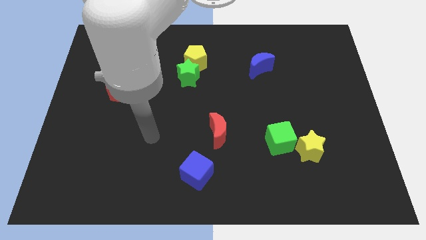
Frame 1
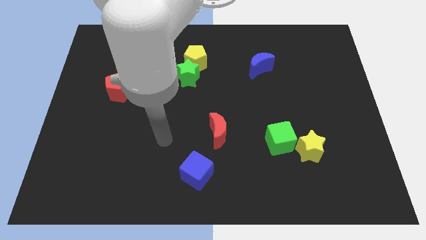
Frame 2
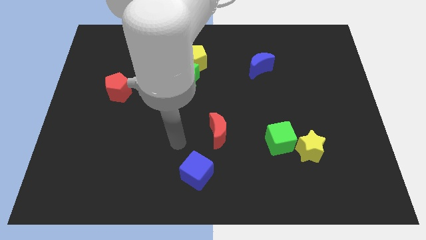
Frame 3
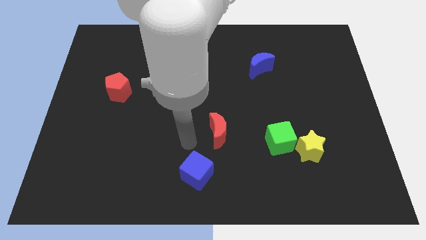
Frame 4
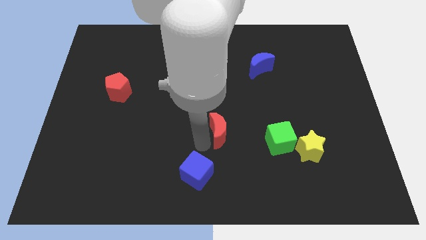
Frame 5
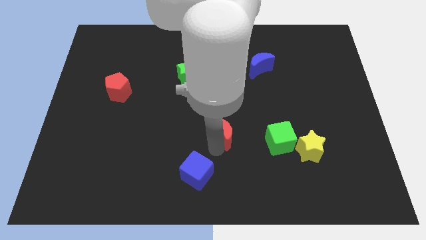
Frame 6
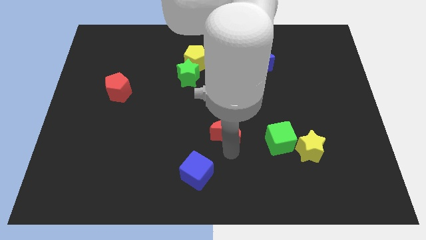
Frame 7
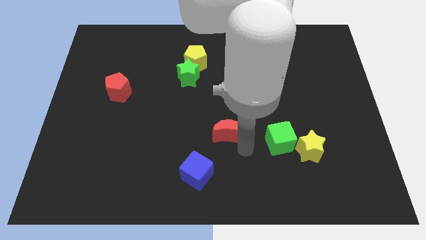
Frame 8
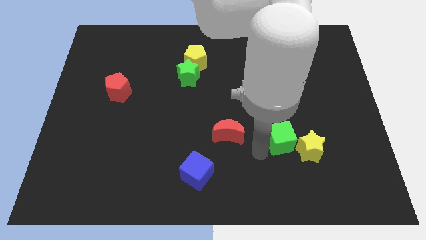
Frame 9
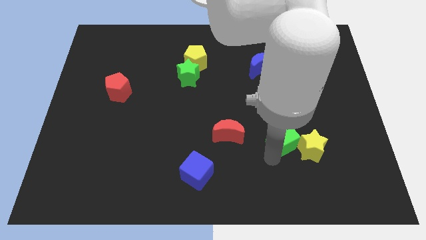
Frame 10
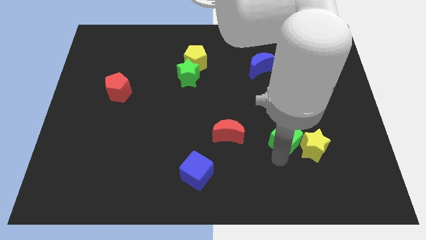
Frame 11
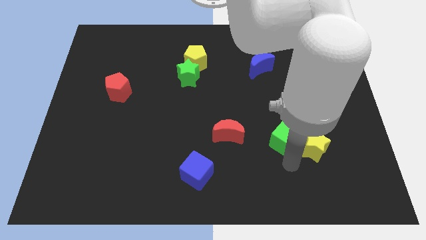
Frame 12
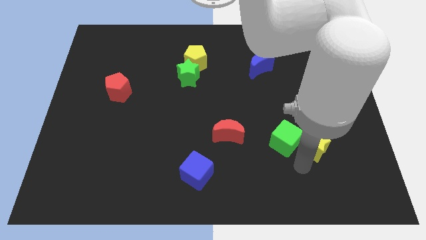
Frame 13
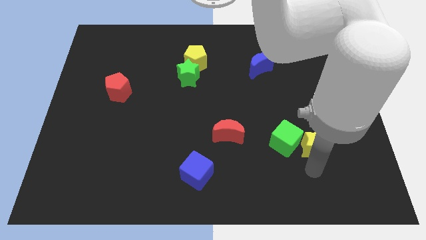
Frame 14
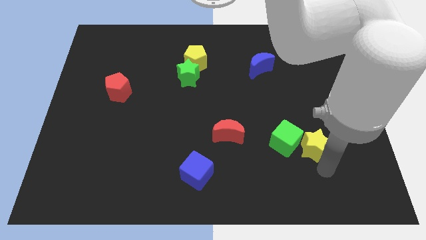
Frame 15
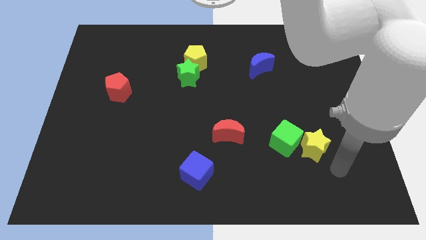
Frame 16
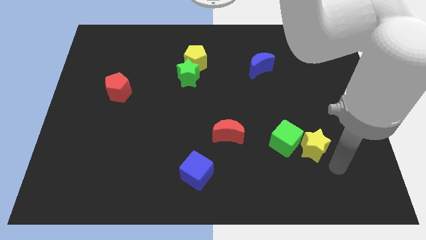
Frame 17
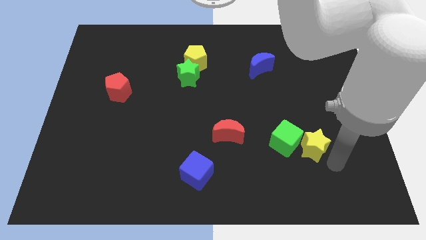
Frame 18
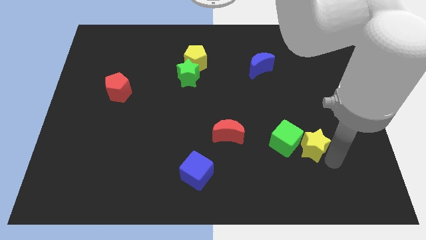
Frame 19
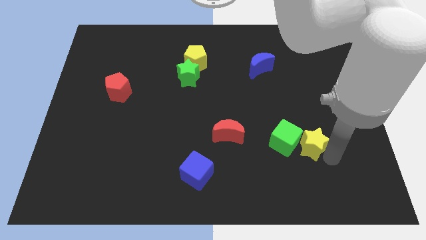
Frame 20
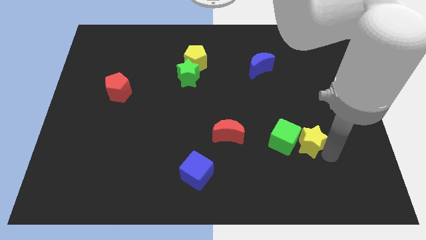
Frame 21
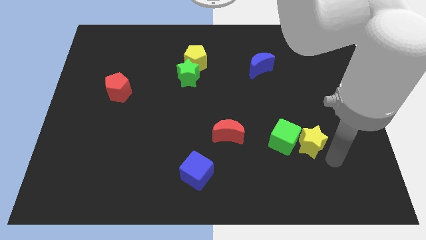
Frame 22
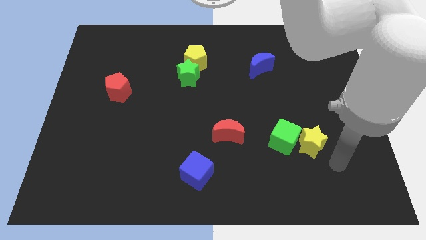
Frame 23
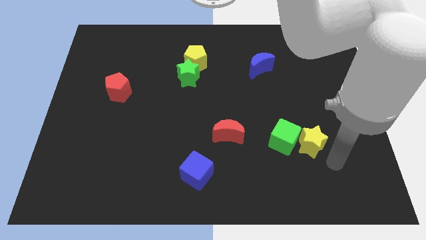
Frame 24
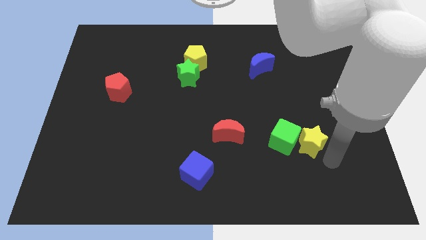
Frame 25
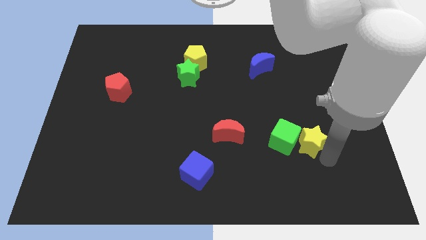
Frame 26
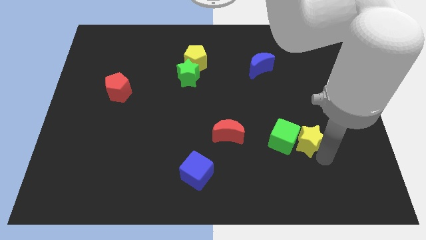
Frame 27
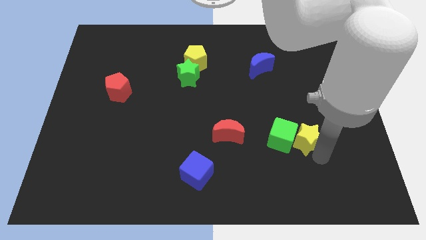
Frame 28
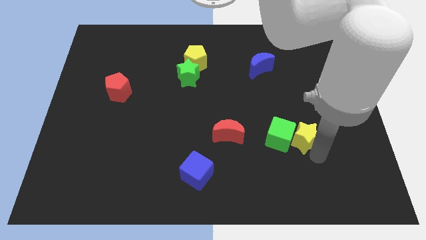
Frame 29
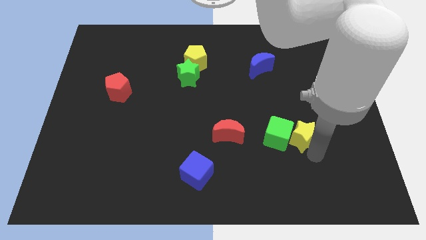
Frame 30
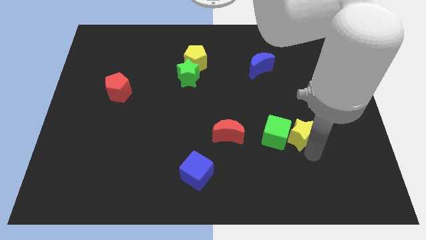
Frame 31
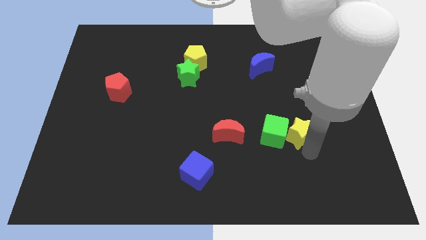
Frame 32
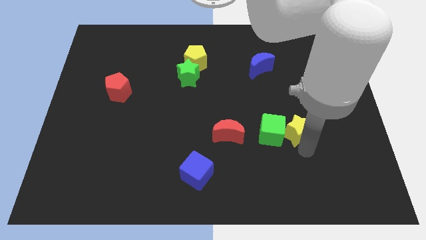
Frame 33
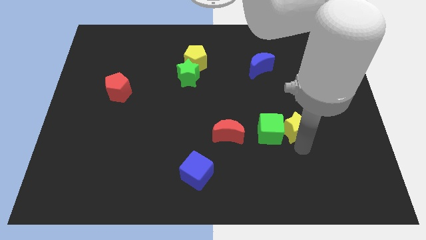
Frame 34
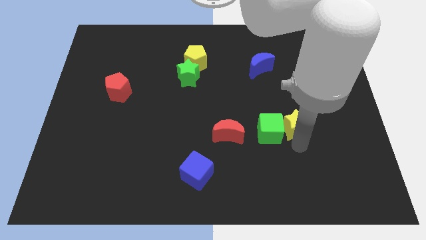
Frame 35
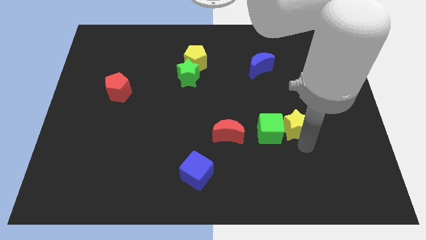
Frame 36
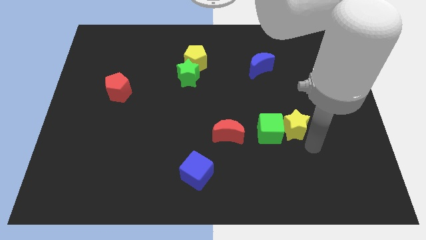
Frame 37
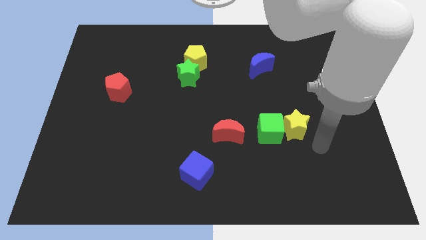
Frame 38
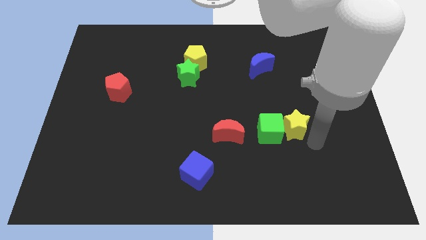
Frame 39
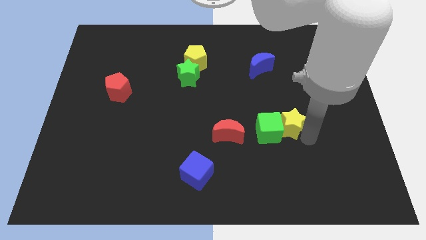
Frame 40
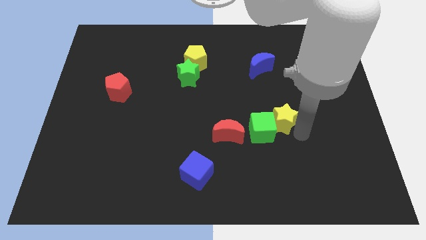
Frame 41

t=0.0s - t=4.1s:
move the yellow star diagonally up and to the left a little bit

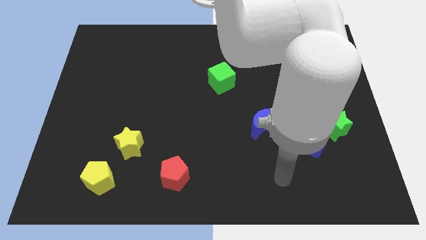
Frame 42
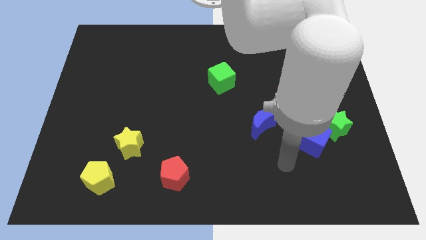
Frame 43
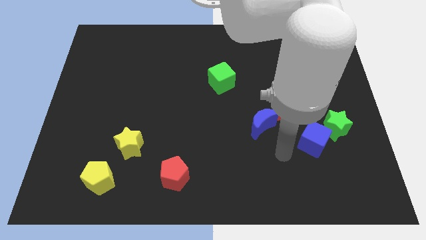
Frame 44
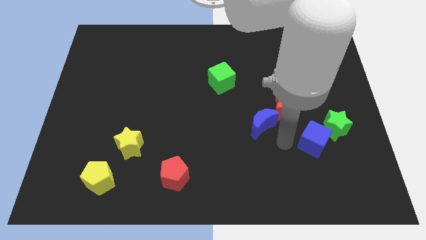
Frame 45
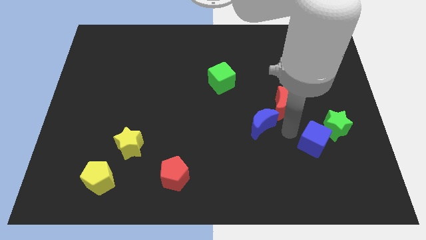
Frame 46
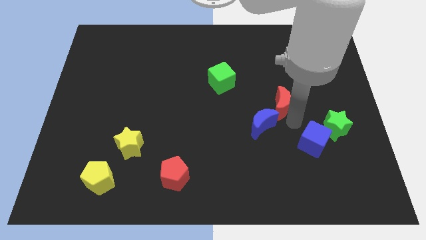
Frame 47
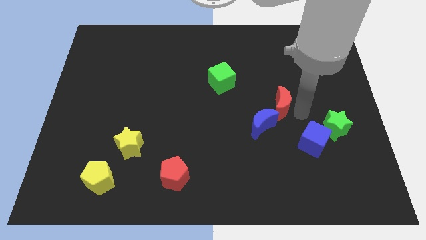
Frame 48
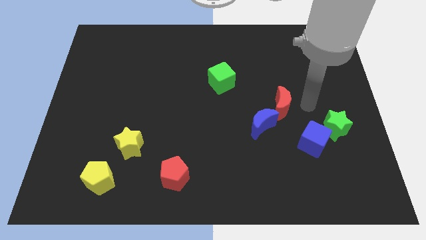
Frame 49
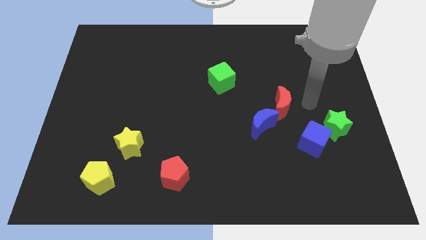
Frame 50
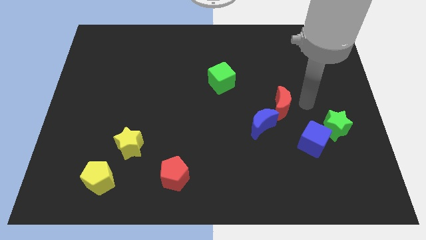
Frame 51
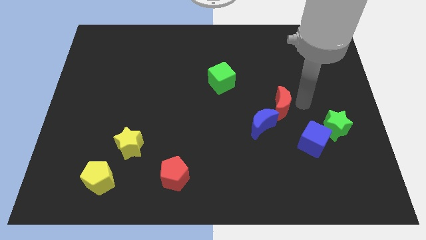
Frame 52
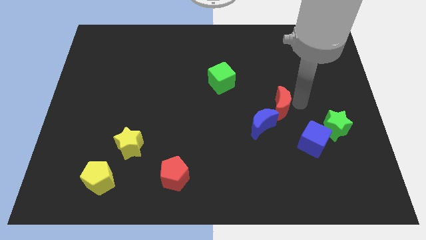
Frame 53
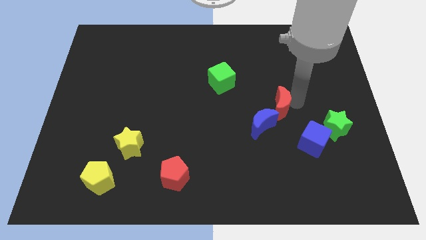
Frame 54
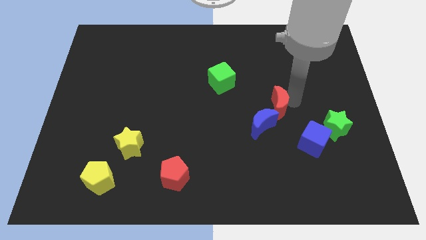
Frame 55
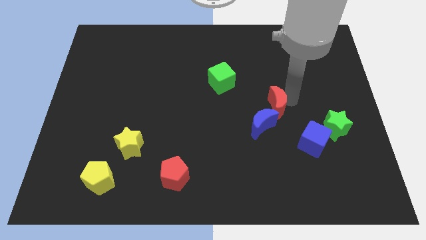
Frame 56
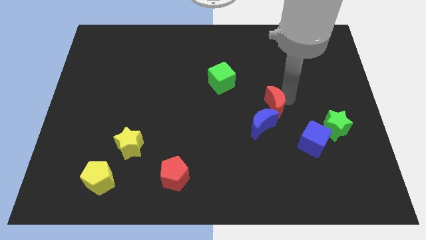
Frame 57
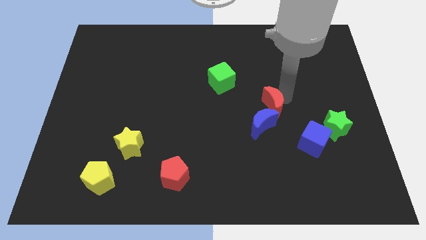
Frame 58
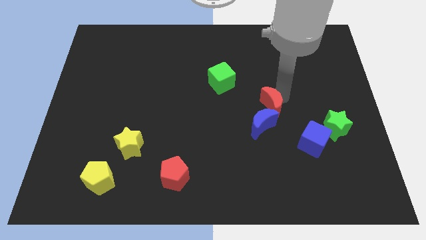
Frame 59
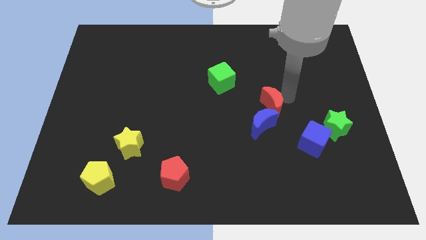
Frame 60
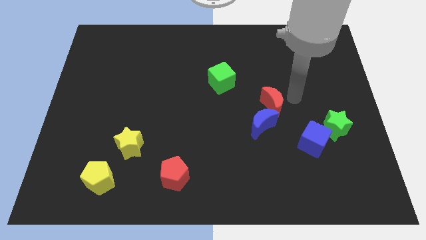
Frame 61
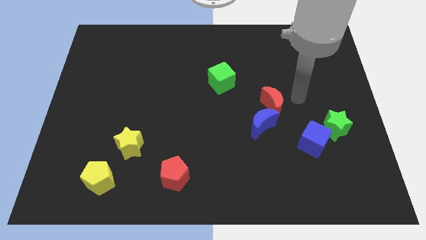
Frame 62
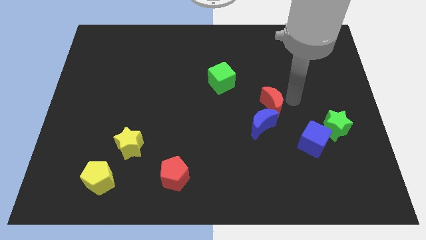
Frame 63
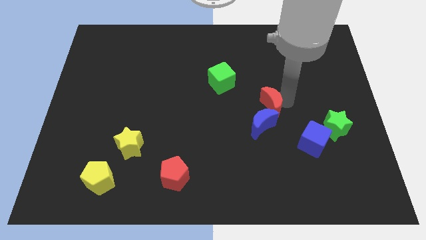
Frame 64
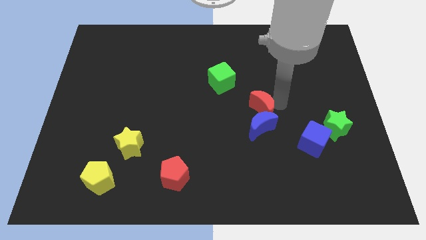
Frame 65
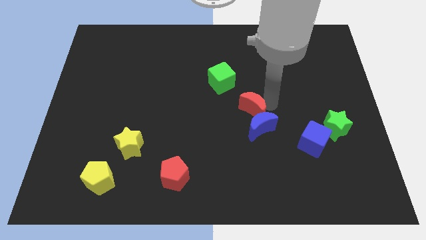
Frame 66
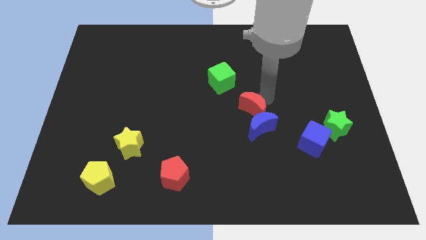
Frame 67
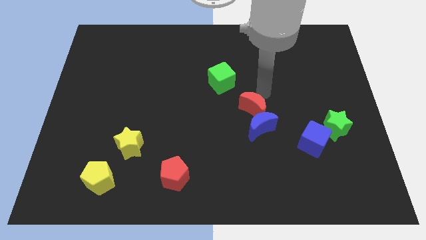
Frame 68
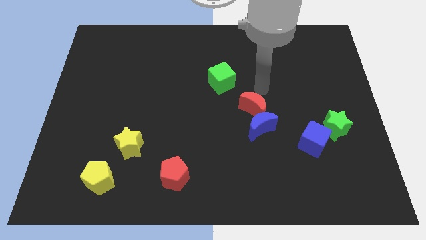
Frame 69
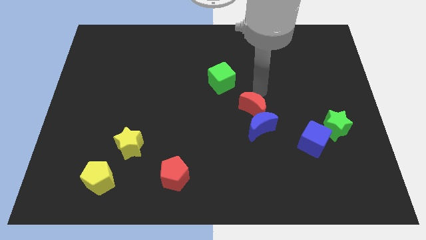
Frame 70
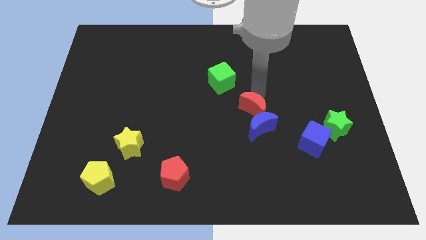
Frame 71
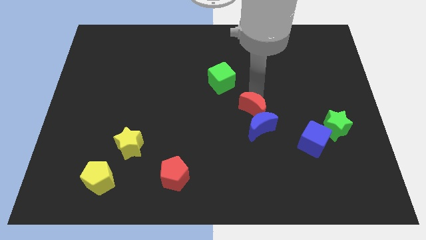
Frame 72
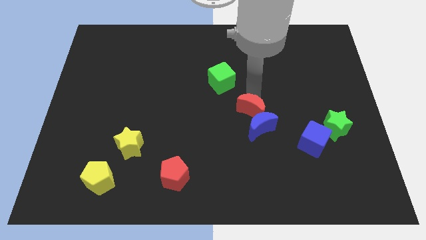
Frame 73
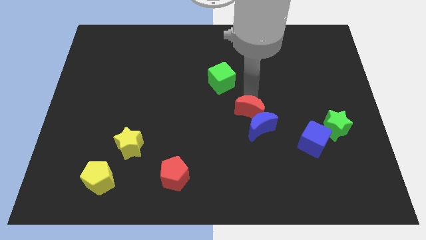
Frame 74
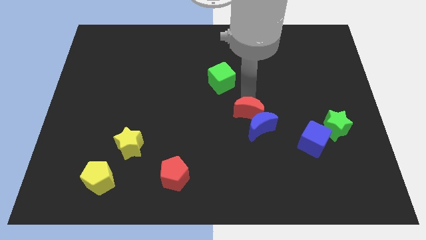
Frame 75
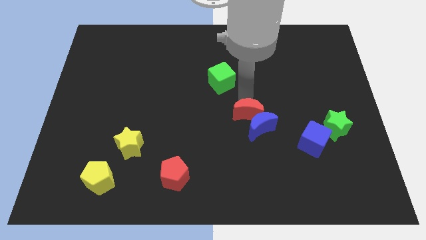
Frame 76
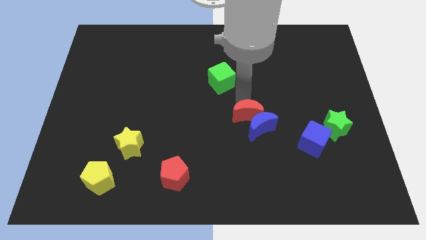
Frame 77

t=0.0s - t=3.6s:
slightly move the red moon down and left

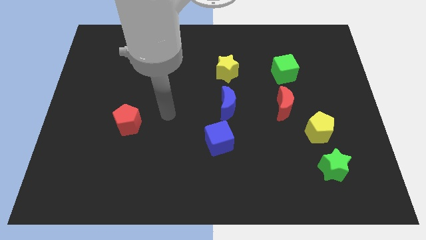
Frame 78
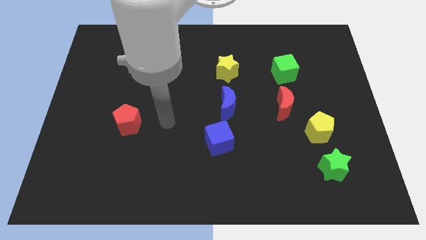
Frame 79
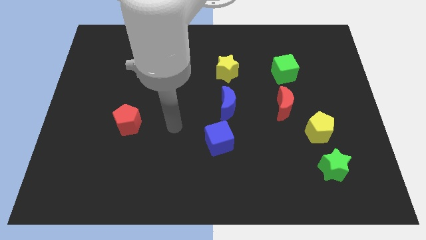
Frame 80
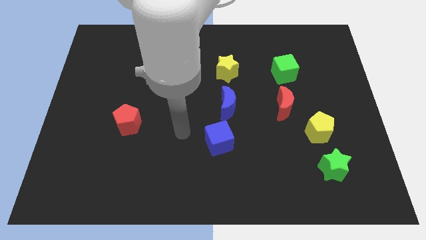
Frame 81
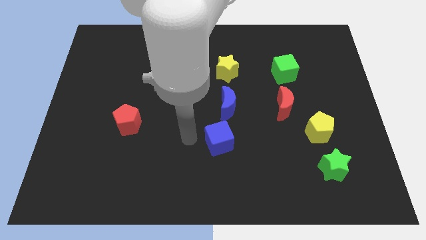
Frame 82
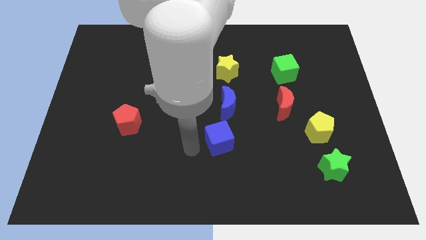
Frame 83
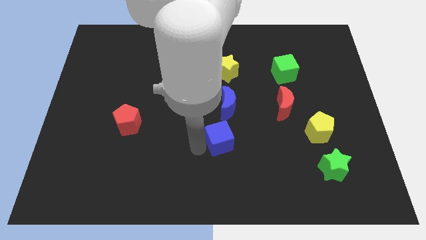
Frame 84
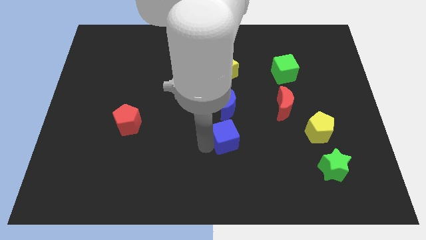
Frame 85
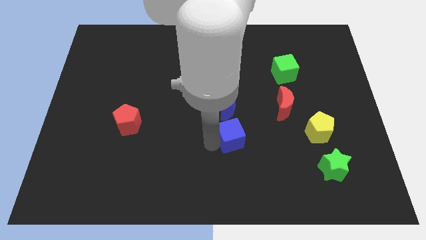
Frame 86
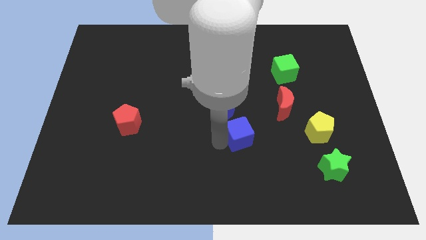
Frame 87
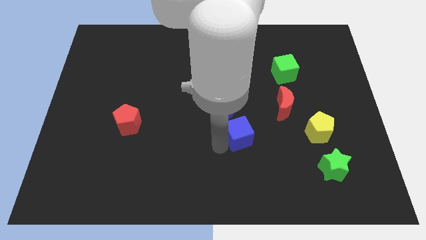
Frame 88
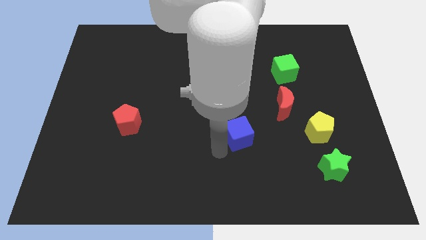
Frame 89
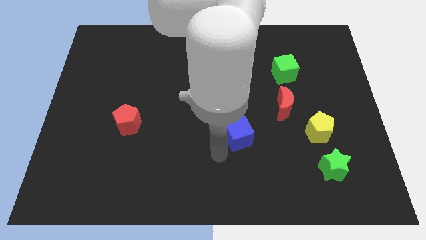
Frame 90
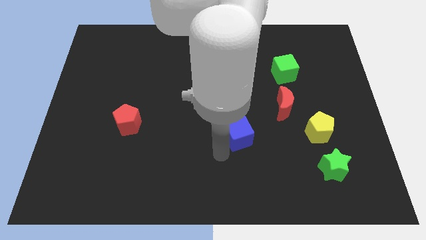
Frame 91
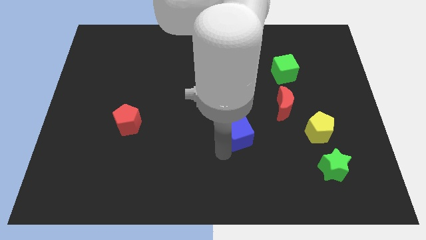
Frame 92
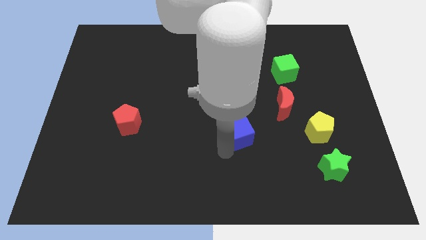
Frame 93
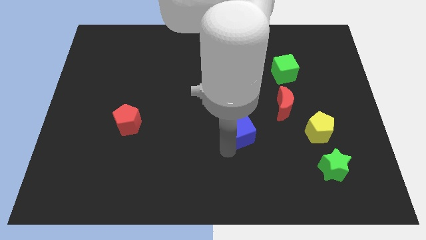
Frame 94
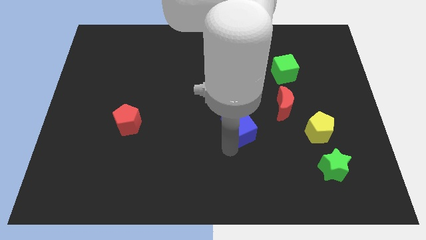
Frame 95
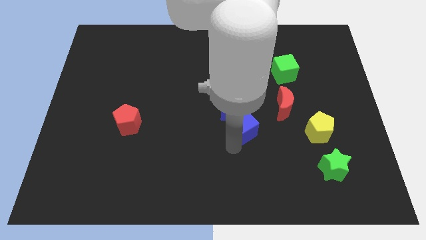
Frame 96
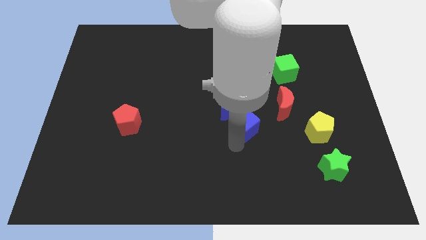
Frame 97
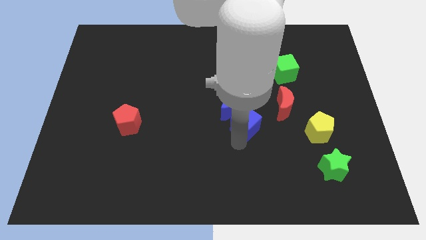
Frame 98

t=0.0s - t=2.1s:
slide the blue cube upwards and then right a bit
